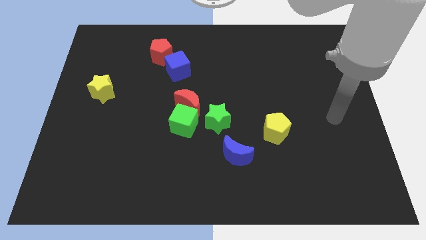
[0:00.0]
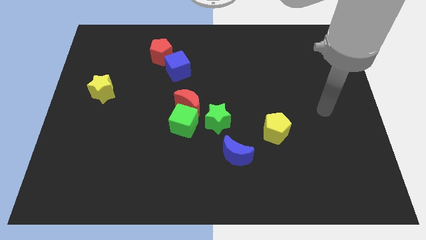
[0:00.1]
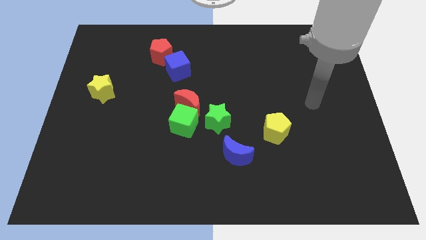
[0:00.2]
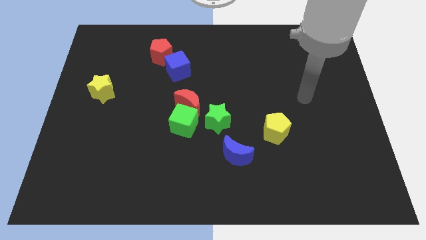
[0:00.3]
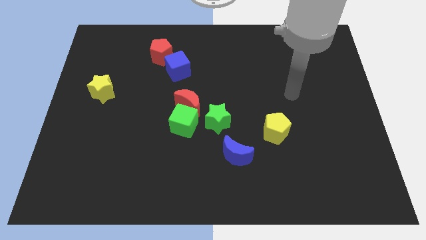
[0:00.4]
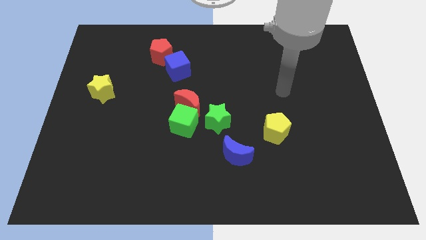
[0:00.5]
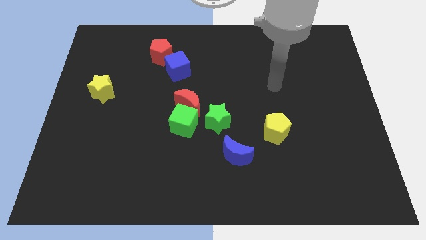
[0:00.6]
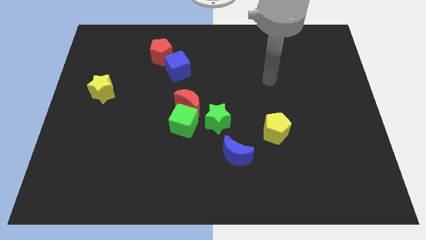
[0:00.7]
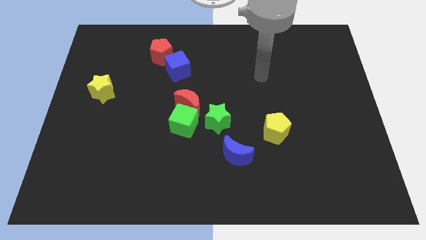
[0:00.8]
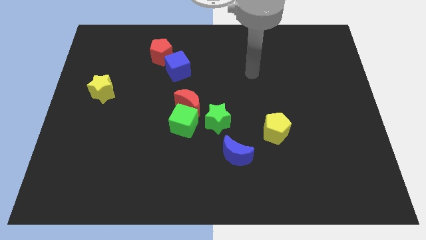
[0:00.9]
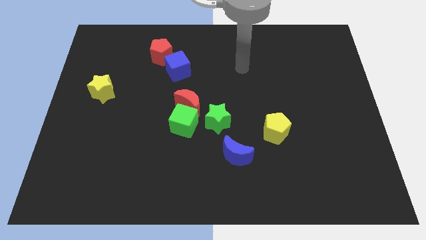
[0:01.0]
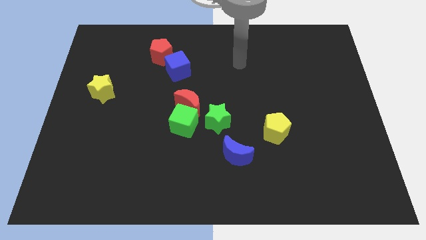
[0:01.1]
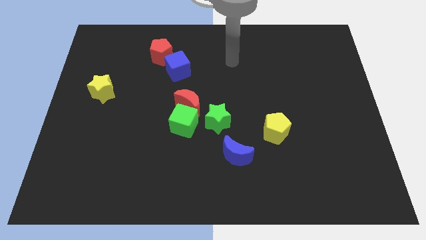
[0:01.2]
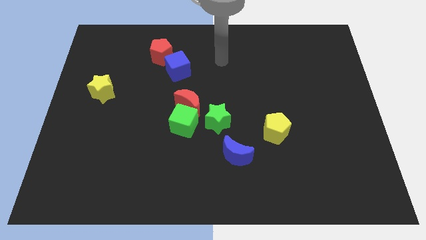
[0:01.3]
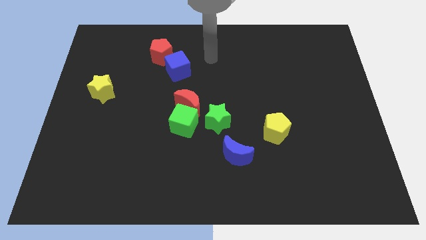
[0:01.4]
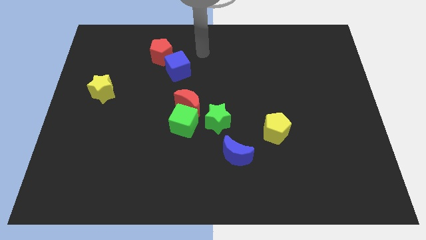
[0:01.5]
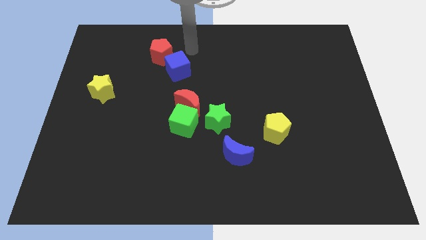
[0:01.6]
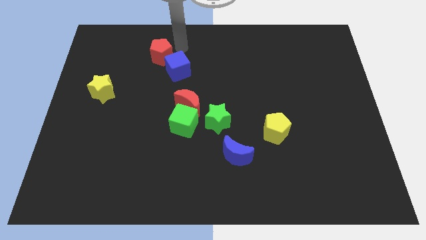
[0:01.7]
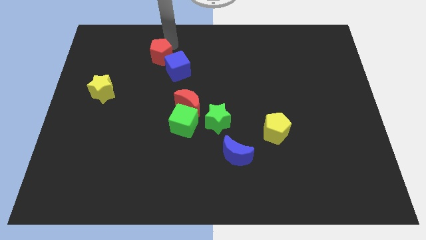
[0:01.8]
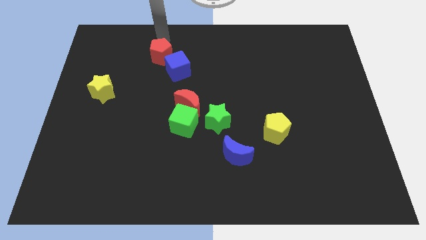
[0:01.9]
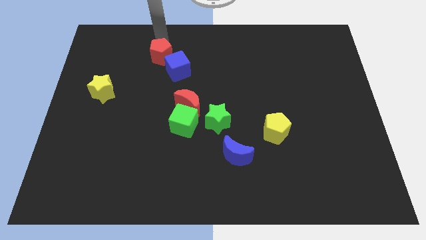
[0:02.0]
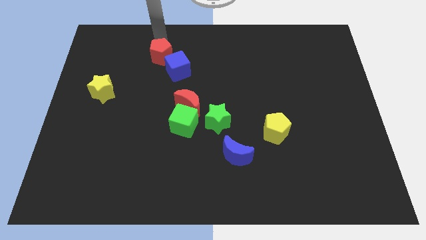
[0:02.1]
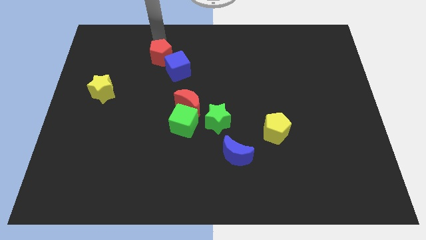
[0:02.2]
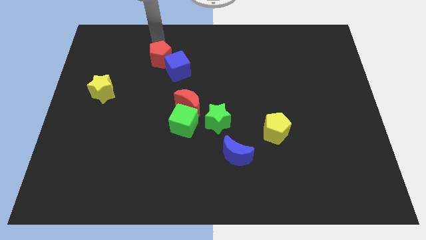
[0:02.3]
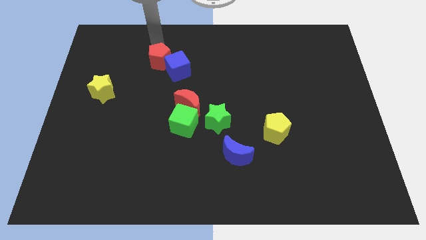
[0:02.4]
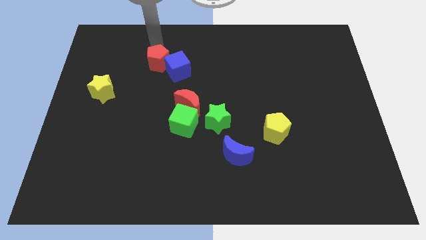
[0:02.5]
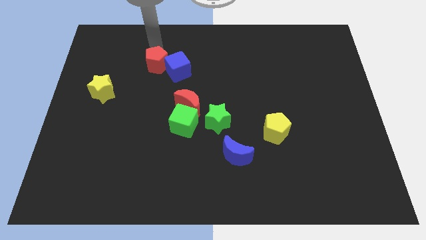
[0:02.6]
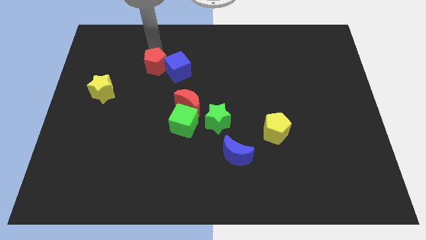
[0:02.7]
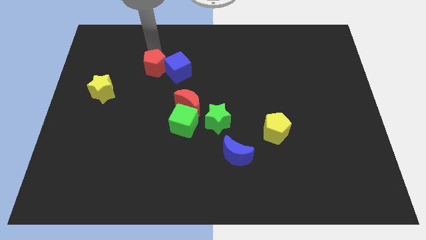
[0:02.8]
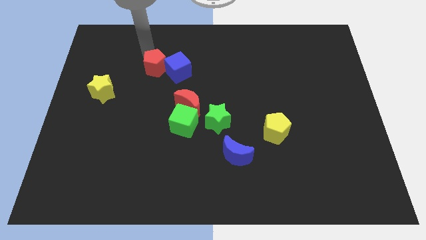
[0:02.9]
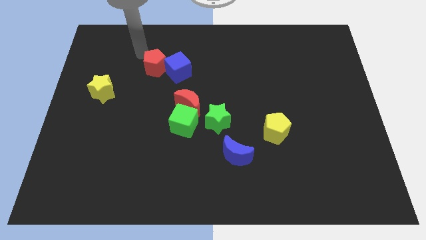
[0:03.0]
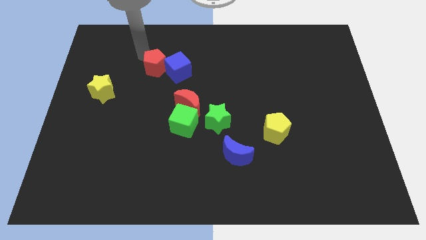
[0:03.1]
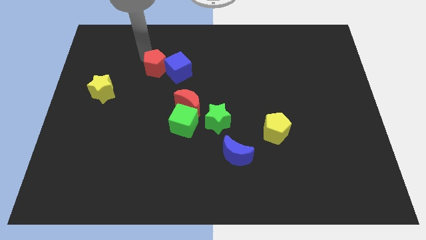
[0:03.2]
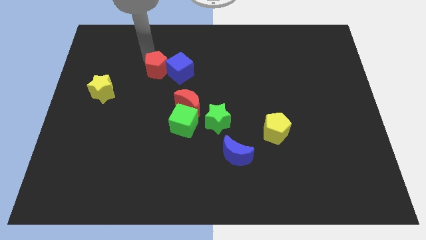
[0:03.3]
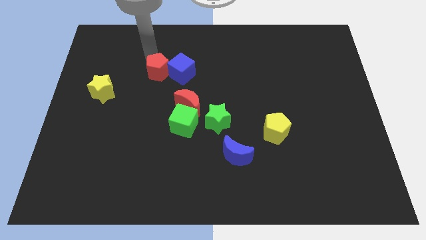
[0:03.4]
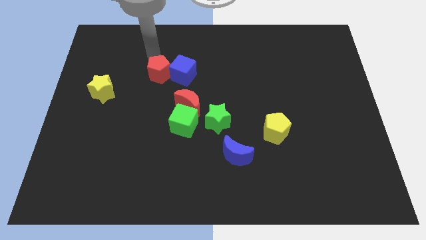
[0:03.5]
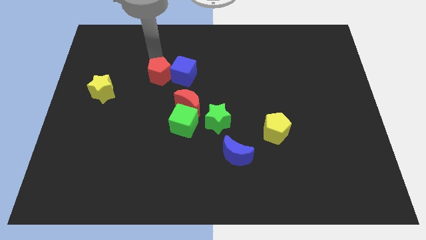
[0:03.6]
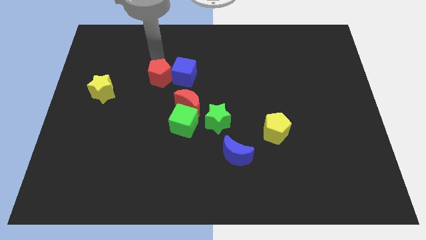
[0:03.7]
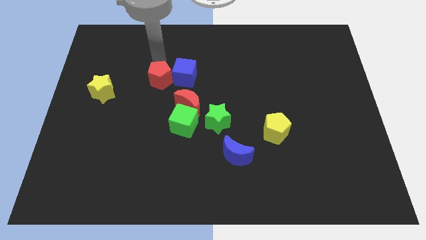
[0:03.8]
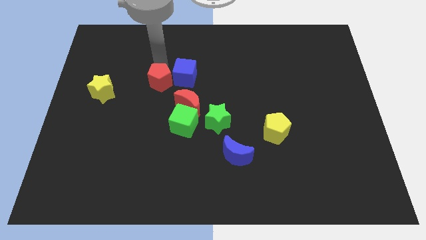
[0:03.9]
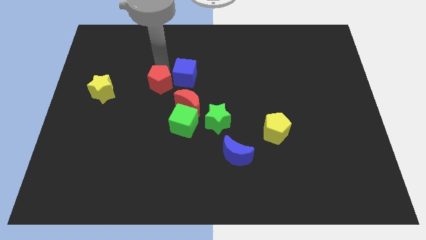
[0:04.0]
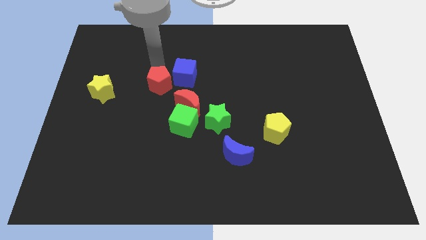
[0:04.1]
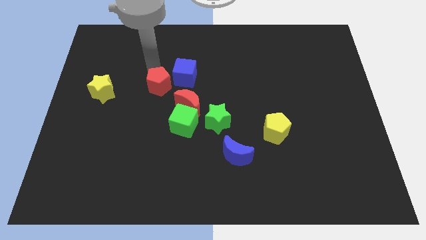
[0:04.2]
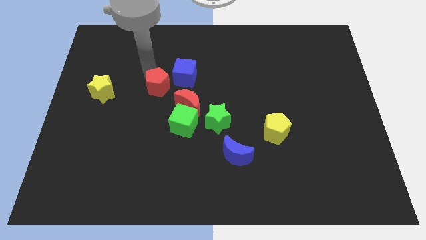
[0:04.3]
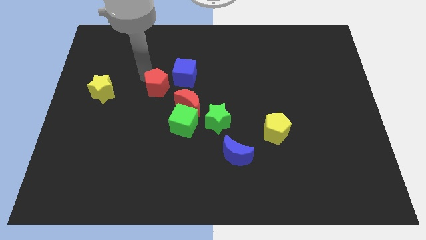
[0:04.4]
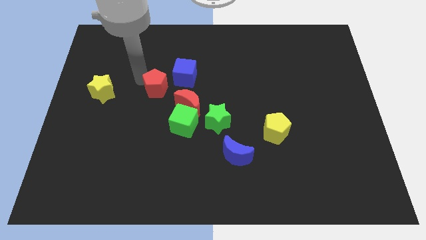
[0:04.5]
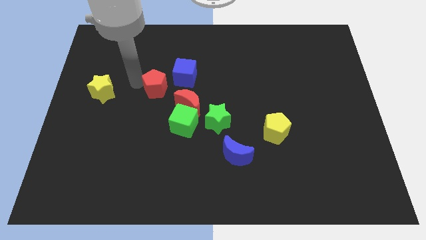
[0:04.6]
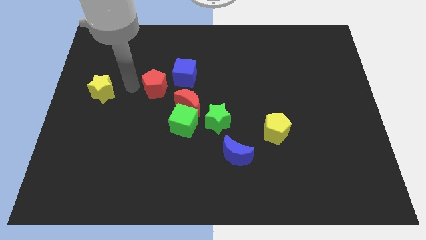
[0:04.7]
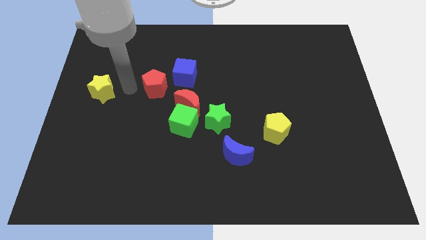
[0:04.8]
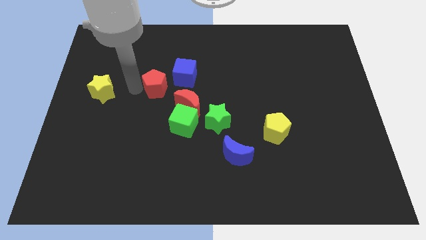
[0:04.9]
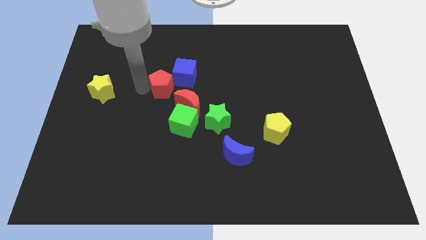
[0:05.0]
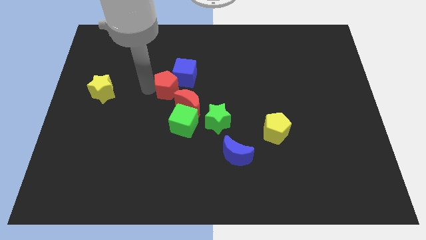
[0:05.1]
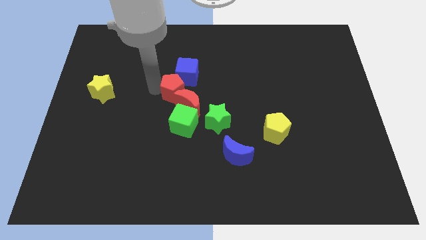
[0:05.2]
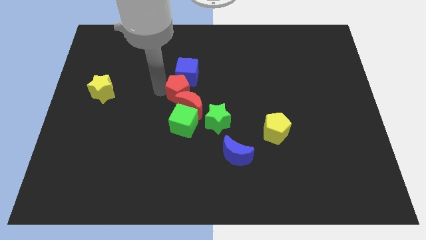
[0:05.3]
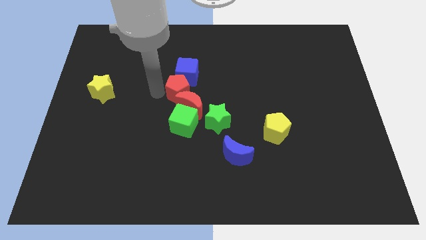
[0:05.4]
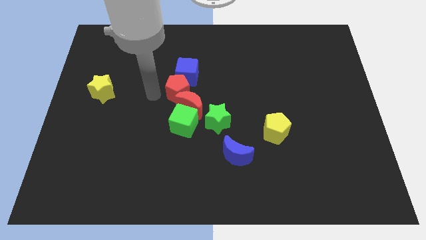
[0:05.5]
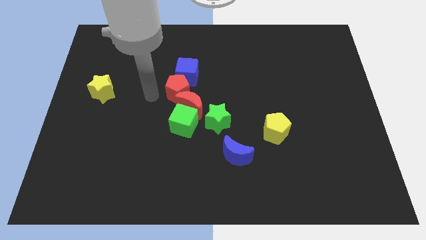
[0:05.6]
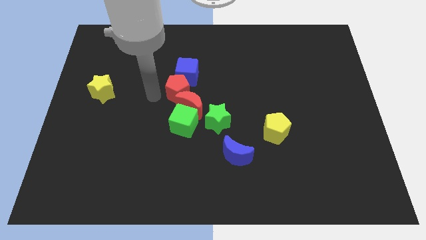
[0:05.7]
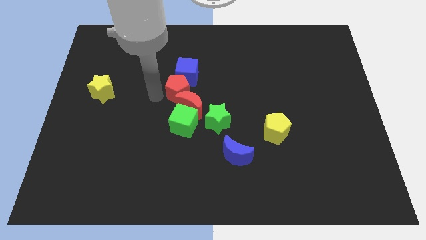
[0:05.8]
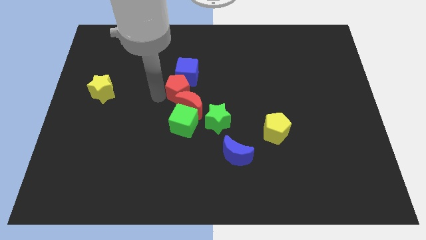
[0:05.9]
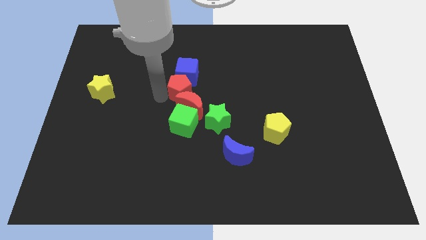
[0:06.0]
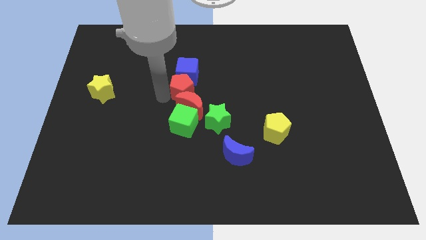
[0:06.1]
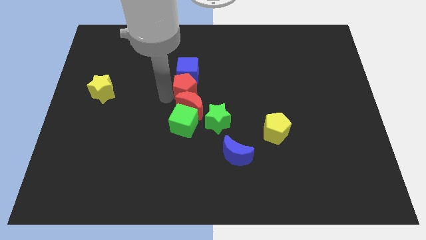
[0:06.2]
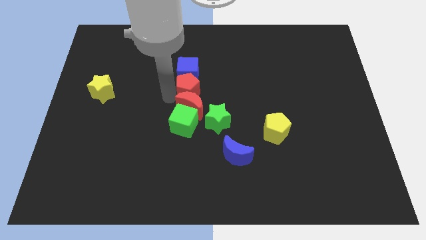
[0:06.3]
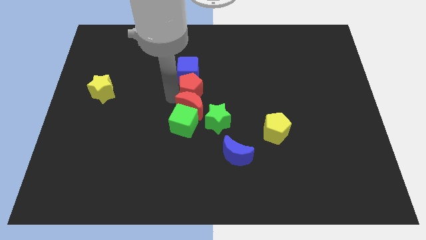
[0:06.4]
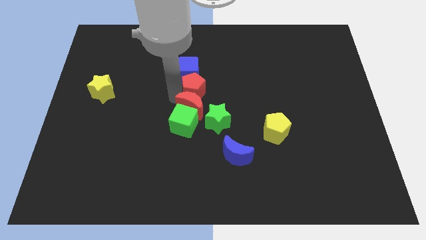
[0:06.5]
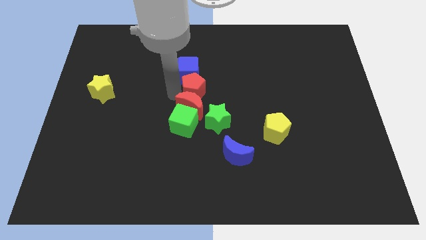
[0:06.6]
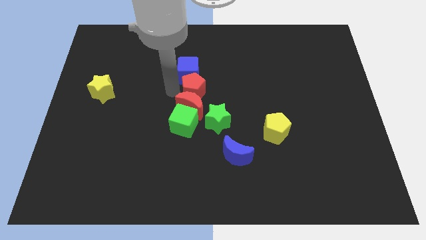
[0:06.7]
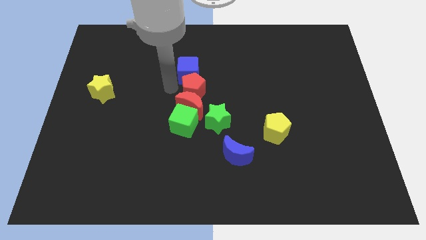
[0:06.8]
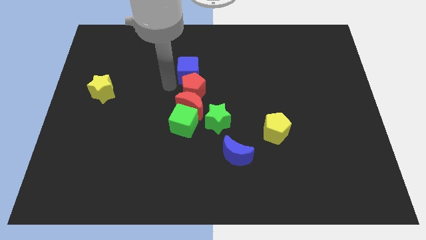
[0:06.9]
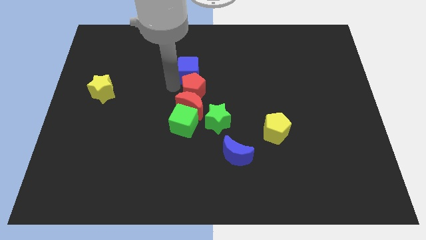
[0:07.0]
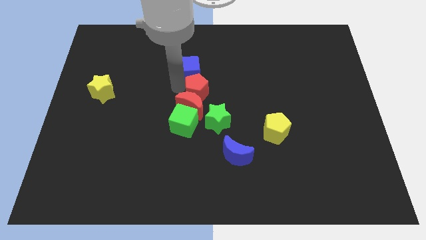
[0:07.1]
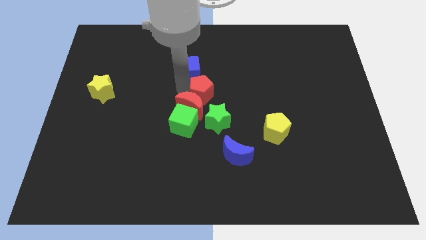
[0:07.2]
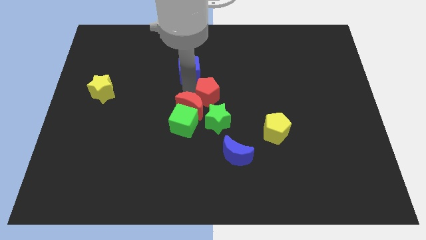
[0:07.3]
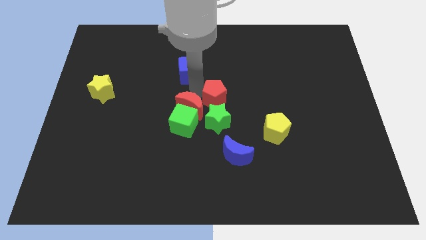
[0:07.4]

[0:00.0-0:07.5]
slide the red pentagon down and then right

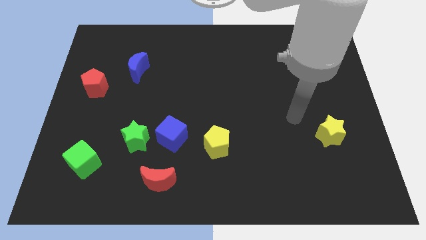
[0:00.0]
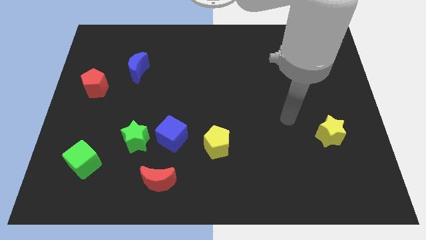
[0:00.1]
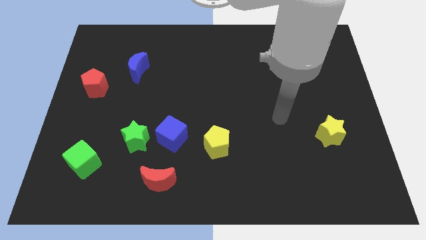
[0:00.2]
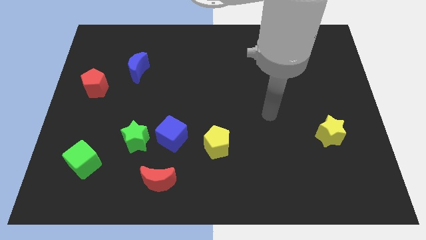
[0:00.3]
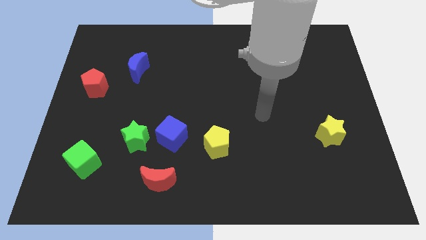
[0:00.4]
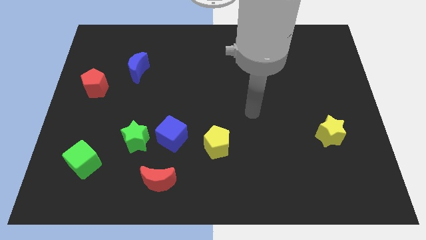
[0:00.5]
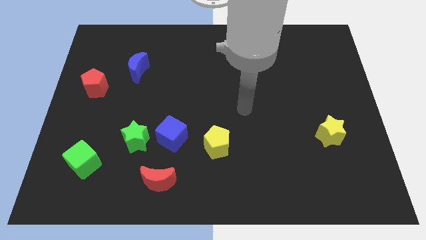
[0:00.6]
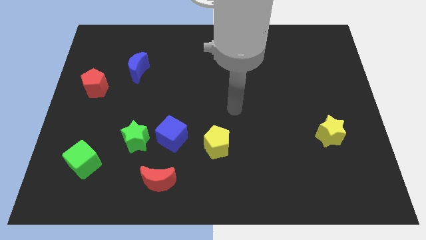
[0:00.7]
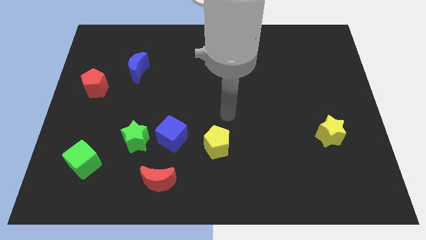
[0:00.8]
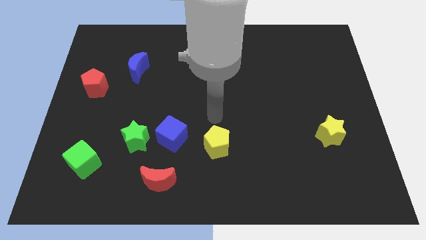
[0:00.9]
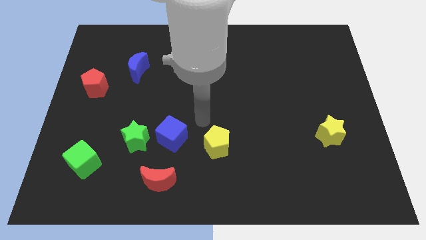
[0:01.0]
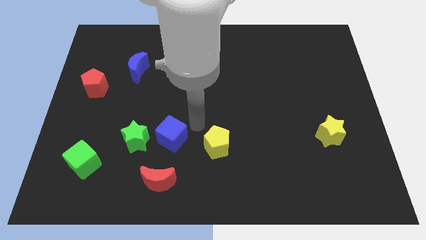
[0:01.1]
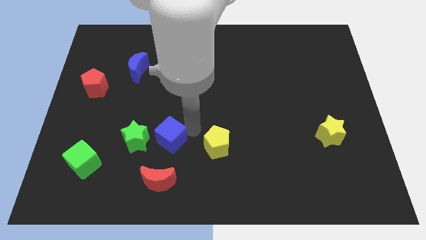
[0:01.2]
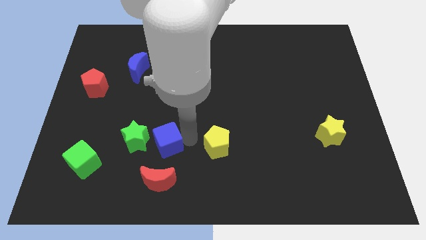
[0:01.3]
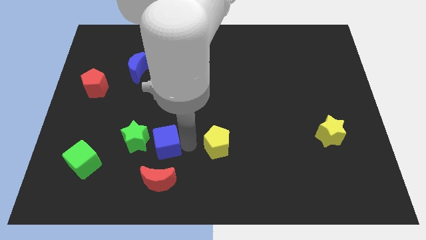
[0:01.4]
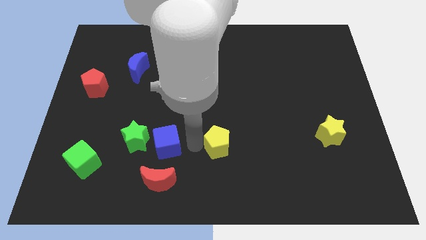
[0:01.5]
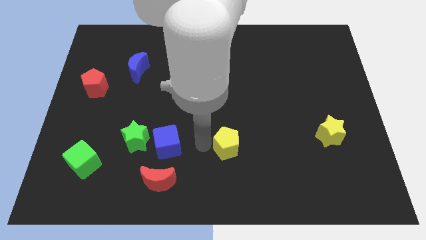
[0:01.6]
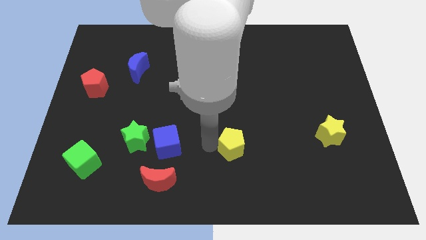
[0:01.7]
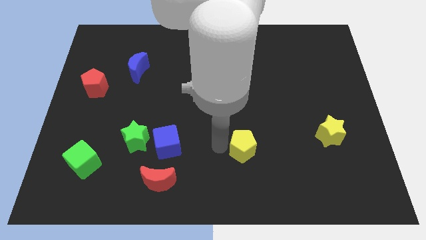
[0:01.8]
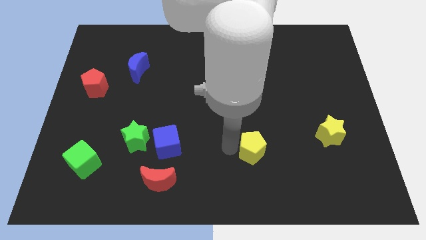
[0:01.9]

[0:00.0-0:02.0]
move the yellow pentagon a little bit right
